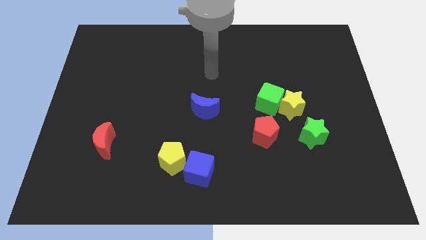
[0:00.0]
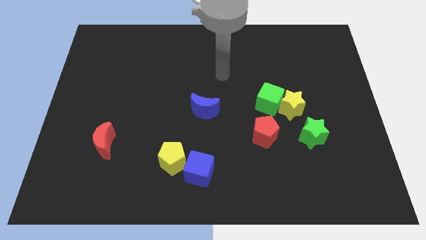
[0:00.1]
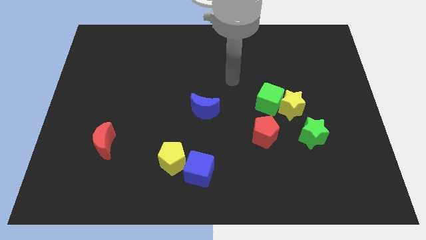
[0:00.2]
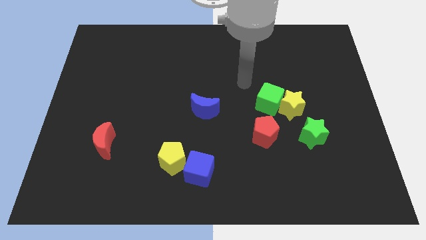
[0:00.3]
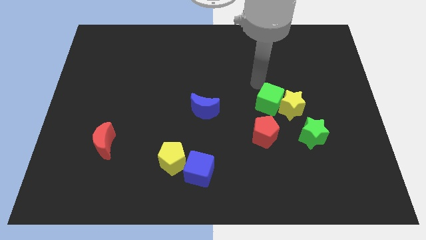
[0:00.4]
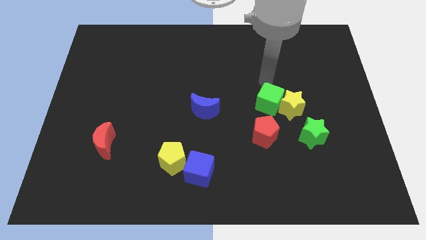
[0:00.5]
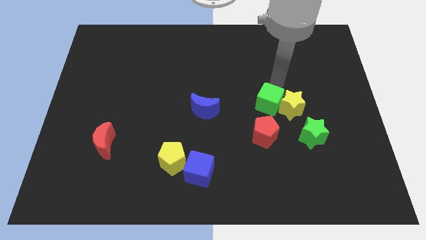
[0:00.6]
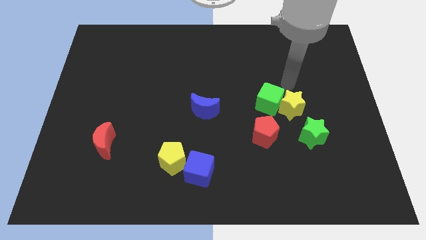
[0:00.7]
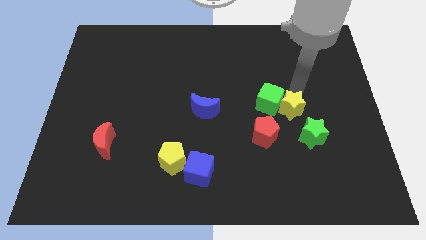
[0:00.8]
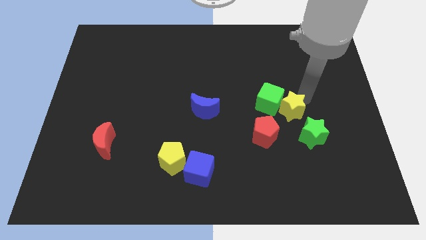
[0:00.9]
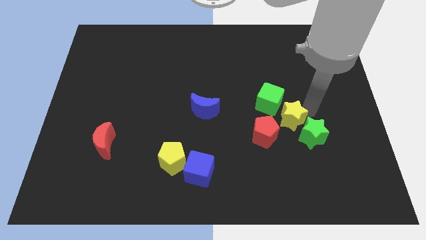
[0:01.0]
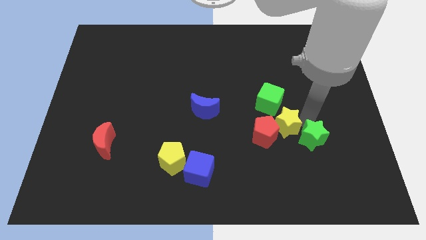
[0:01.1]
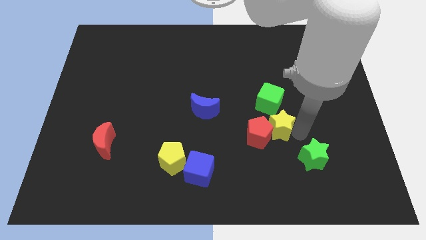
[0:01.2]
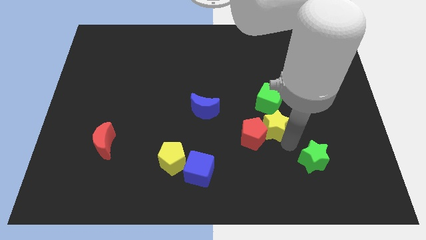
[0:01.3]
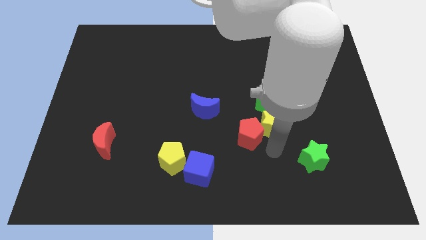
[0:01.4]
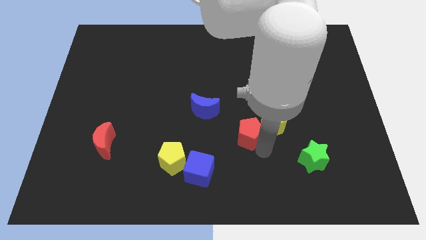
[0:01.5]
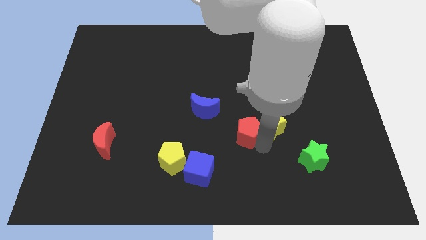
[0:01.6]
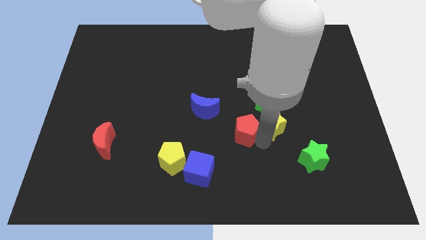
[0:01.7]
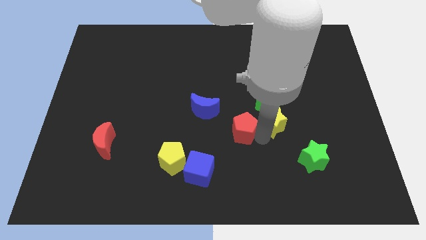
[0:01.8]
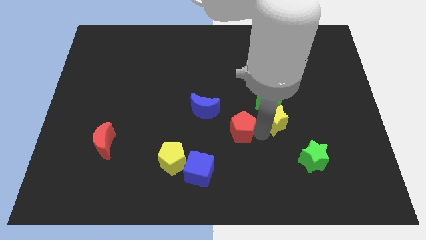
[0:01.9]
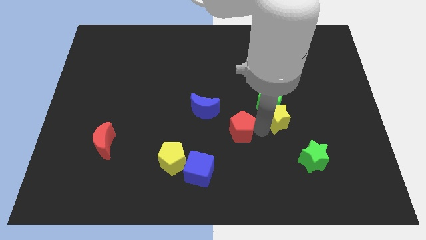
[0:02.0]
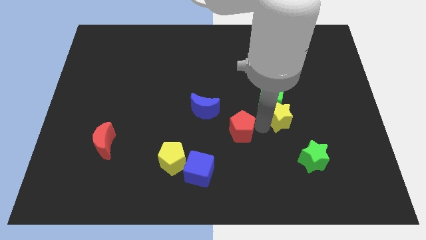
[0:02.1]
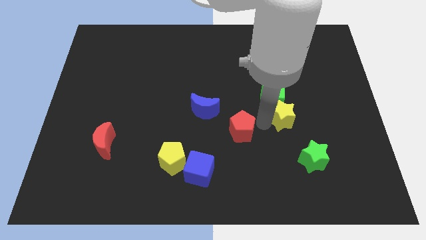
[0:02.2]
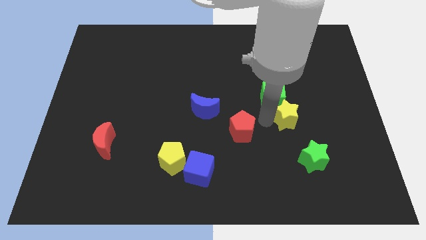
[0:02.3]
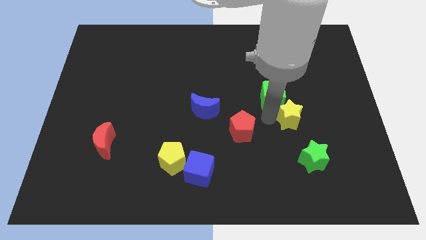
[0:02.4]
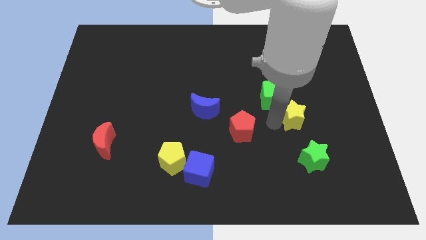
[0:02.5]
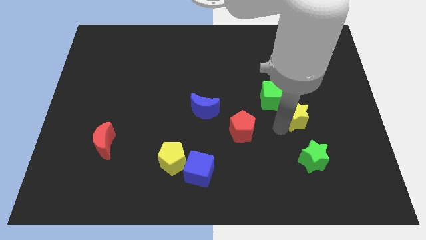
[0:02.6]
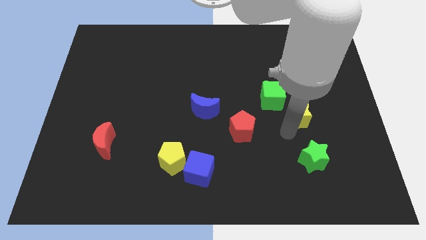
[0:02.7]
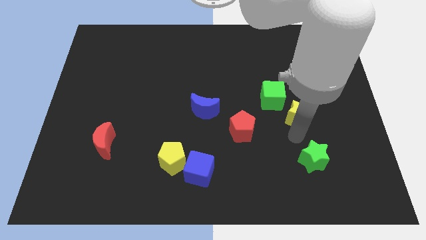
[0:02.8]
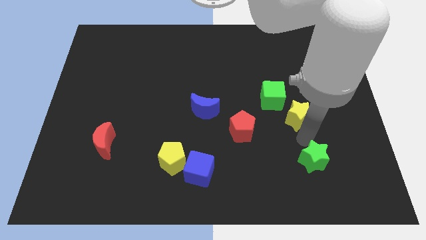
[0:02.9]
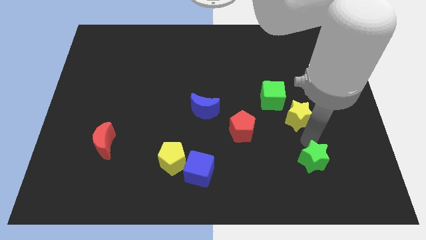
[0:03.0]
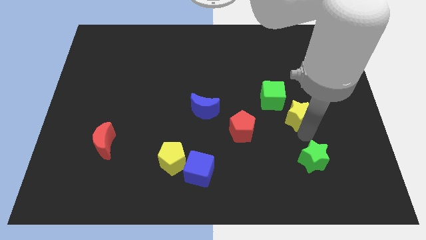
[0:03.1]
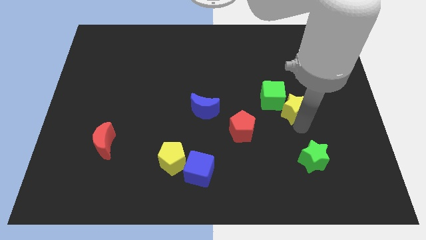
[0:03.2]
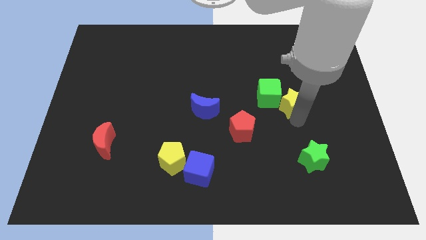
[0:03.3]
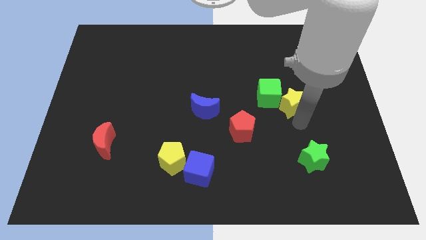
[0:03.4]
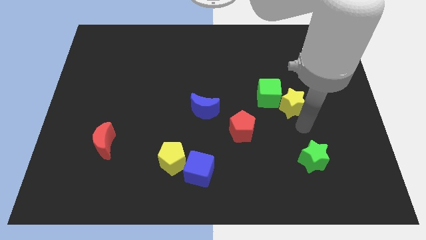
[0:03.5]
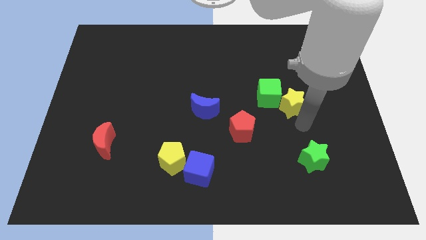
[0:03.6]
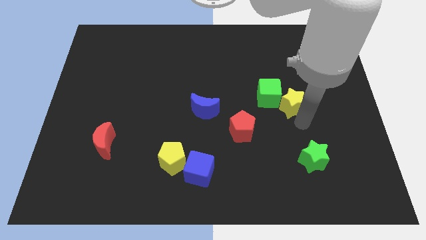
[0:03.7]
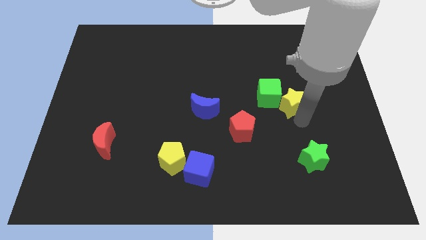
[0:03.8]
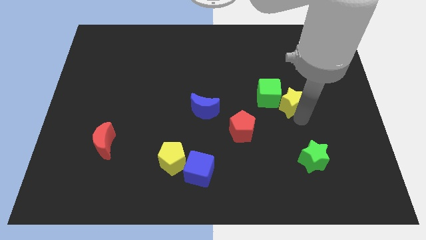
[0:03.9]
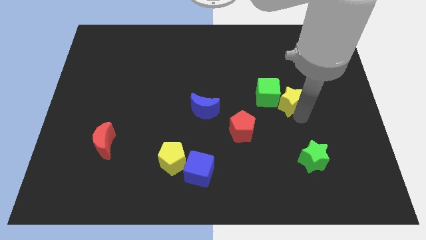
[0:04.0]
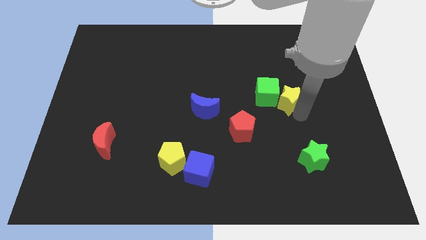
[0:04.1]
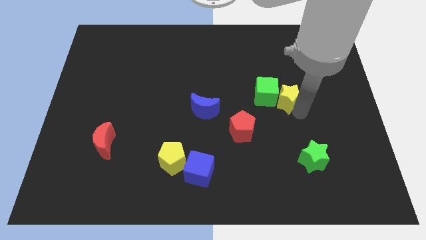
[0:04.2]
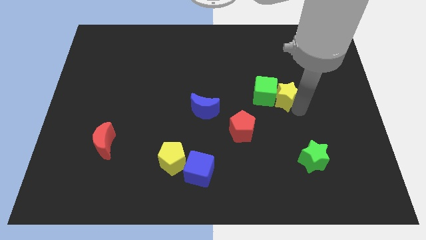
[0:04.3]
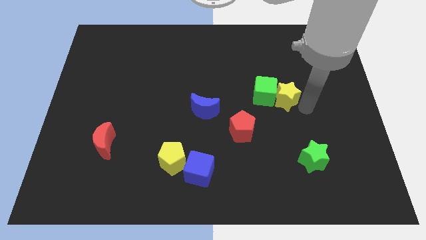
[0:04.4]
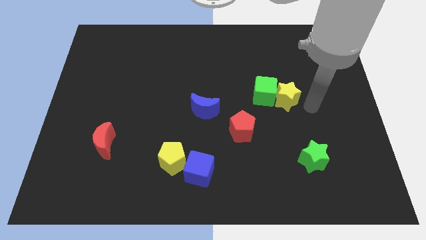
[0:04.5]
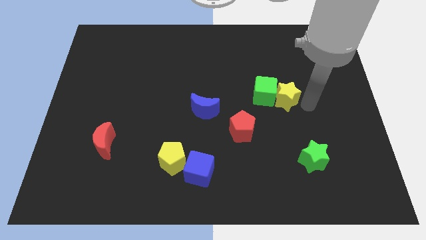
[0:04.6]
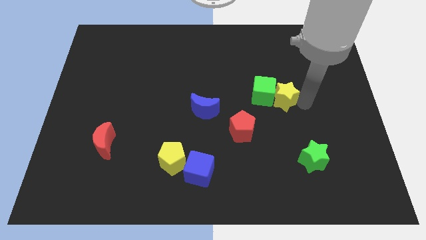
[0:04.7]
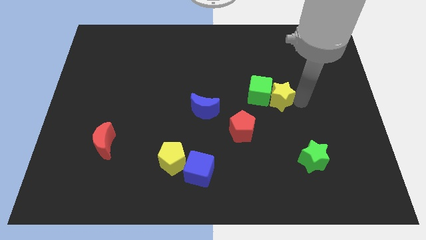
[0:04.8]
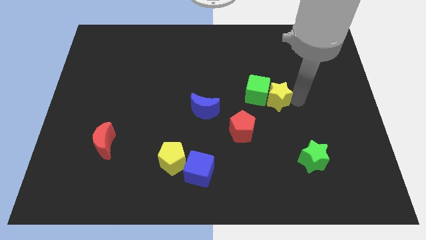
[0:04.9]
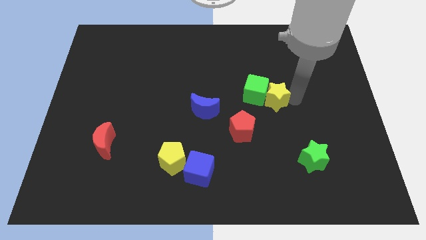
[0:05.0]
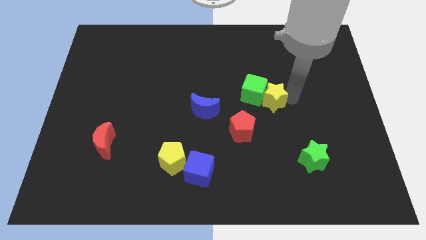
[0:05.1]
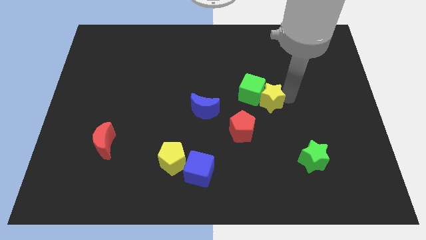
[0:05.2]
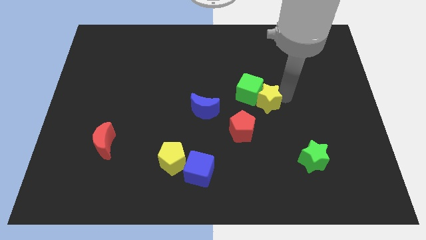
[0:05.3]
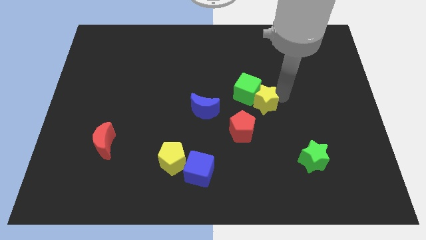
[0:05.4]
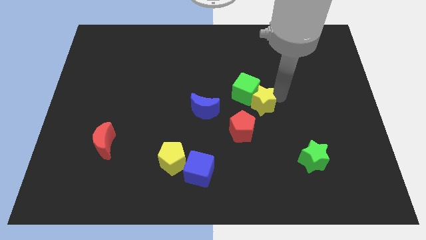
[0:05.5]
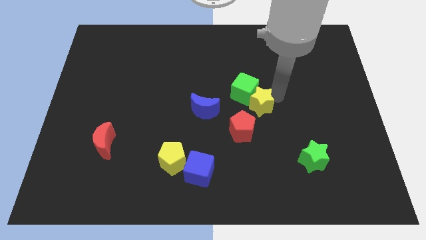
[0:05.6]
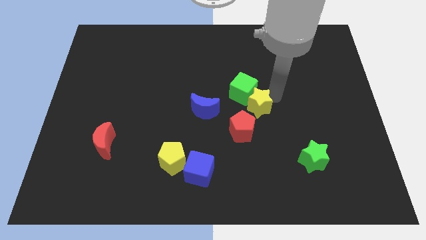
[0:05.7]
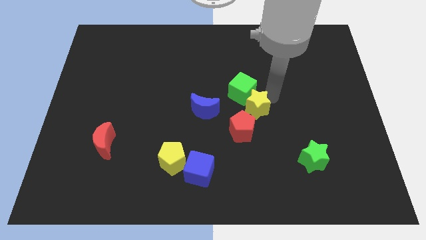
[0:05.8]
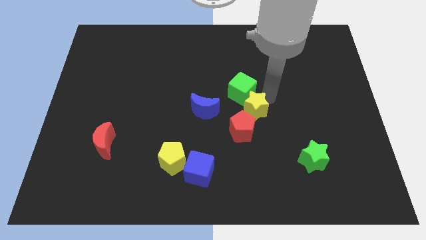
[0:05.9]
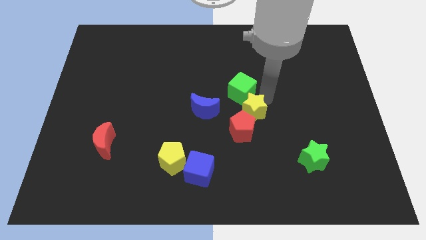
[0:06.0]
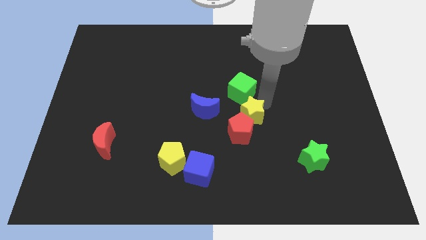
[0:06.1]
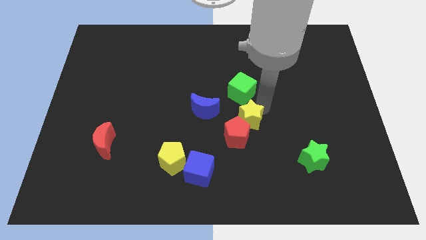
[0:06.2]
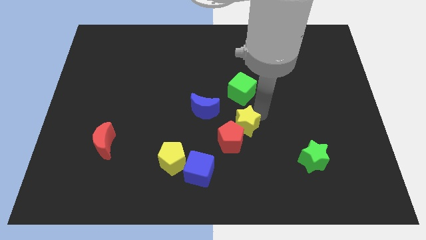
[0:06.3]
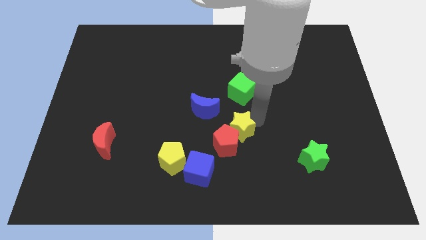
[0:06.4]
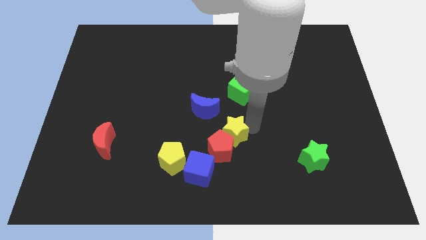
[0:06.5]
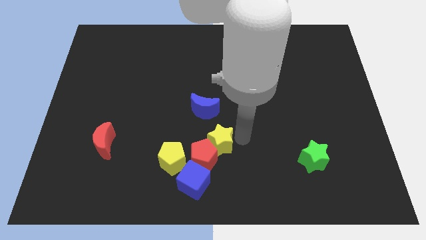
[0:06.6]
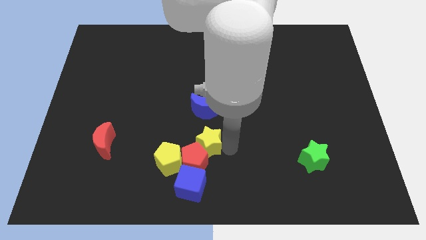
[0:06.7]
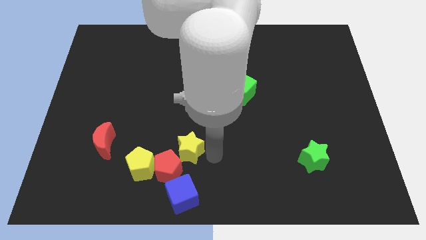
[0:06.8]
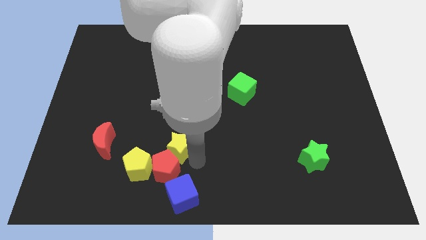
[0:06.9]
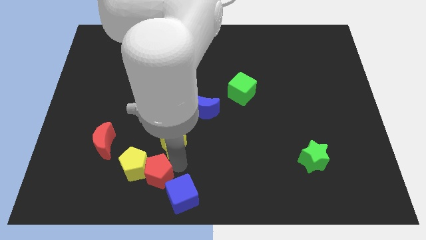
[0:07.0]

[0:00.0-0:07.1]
push the yellow star to the left

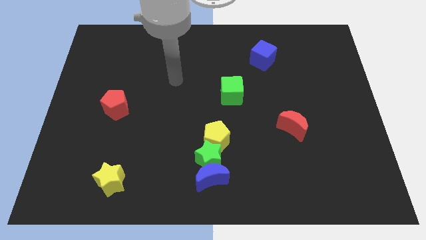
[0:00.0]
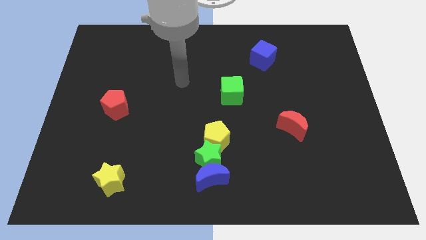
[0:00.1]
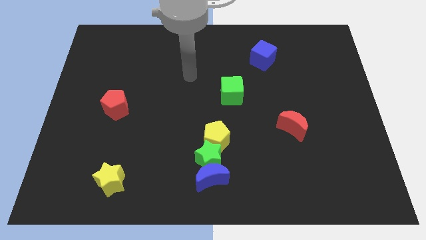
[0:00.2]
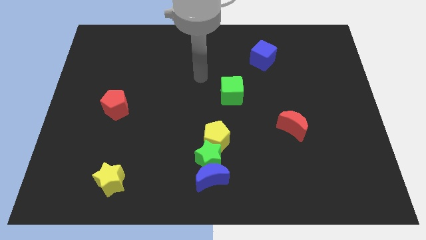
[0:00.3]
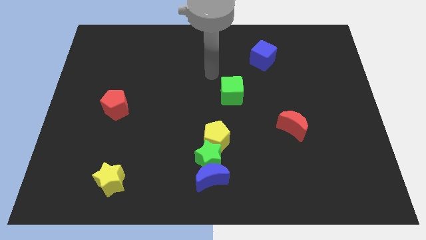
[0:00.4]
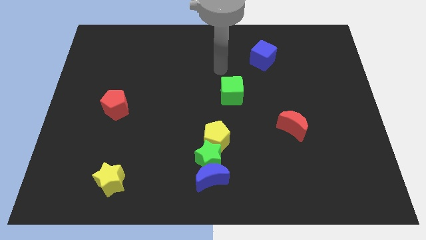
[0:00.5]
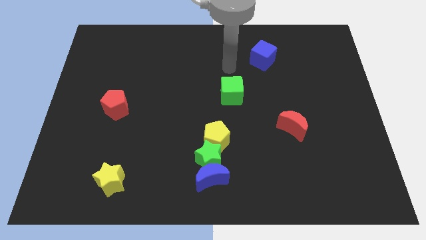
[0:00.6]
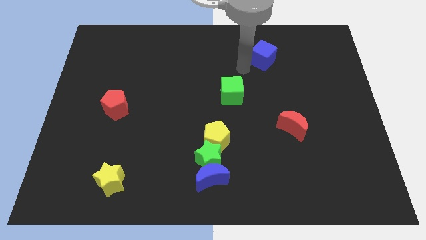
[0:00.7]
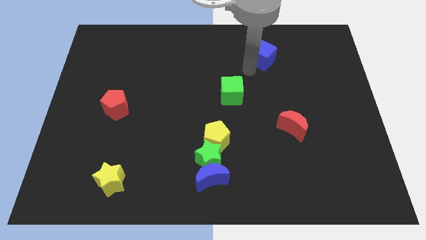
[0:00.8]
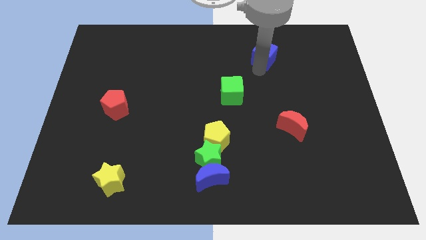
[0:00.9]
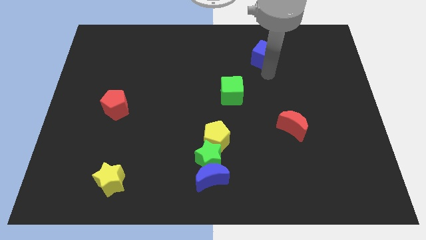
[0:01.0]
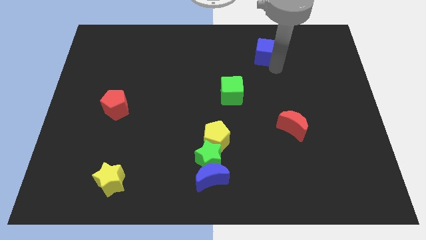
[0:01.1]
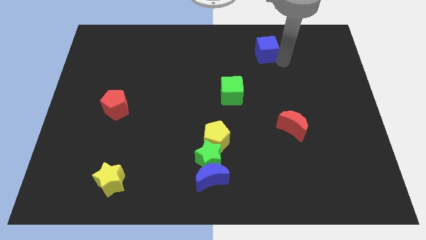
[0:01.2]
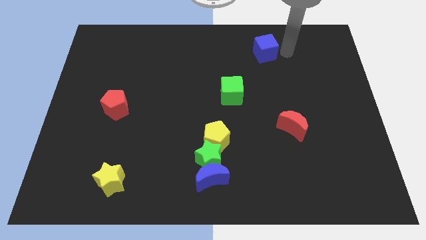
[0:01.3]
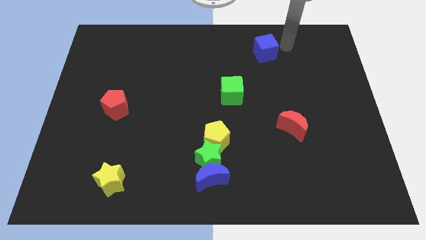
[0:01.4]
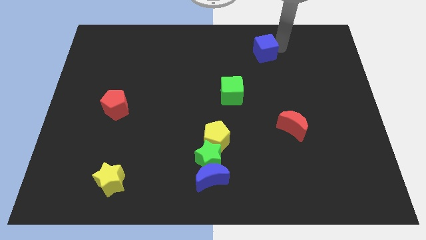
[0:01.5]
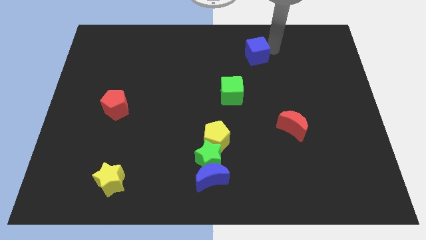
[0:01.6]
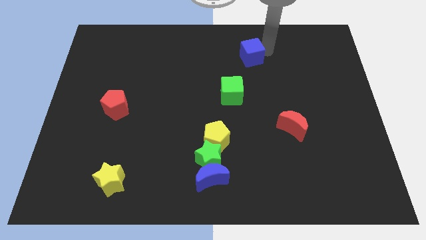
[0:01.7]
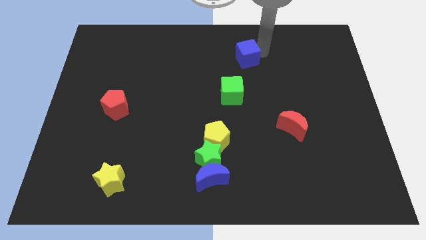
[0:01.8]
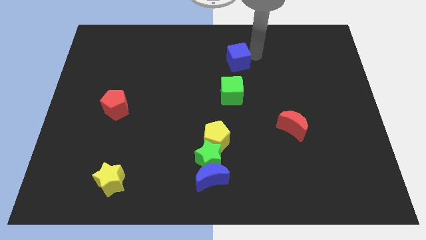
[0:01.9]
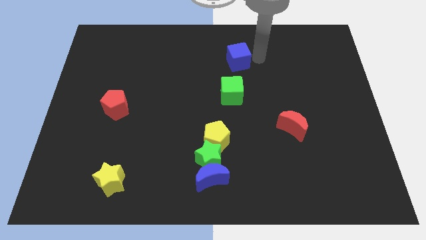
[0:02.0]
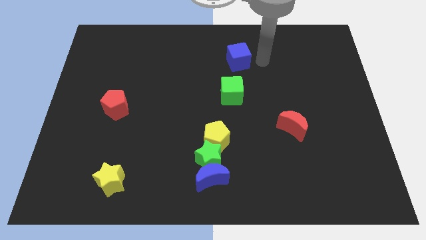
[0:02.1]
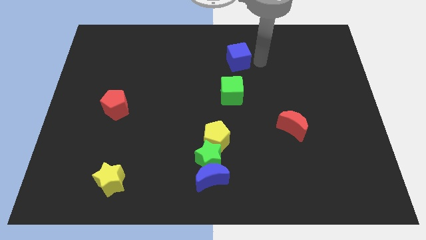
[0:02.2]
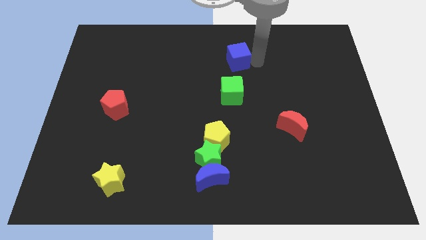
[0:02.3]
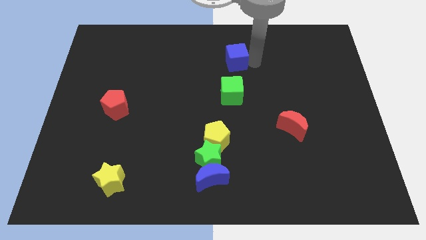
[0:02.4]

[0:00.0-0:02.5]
slide the blue cube a little bit to the left
